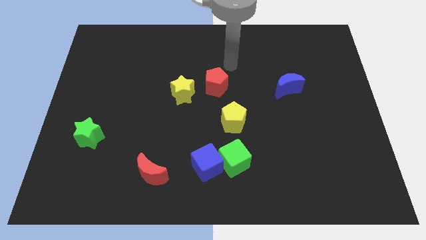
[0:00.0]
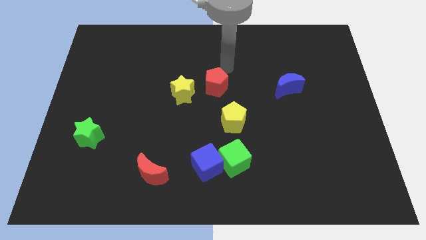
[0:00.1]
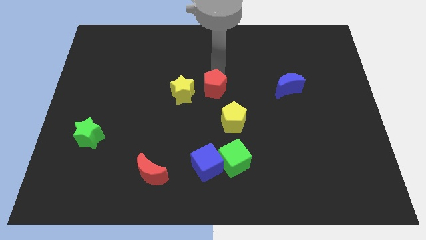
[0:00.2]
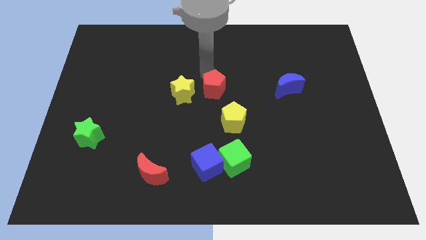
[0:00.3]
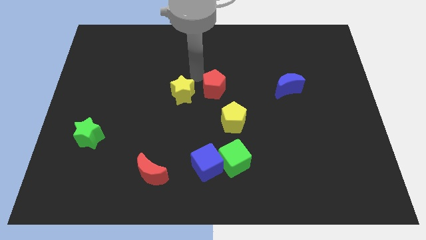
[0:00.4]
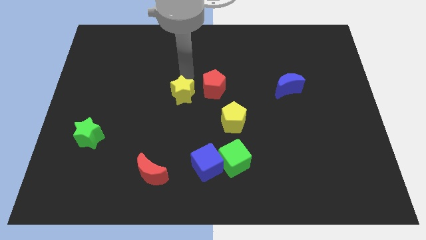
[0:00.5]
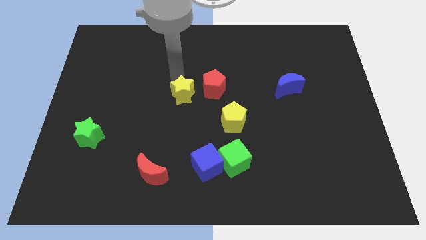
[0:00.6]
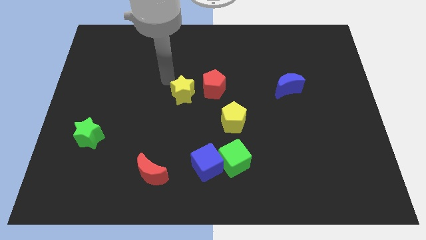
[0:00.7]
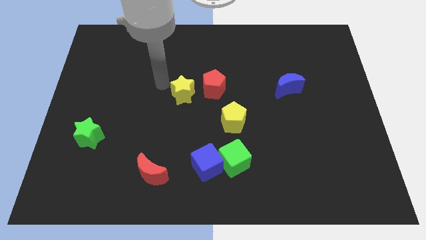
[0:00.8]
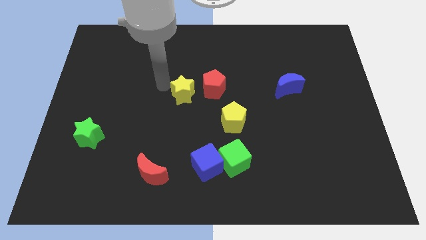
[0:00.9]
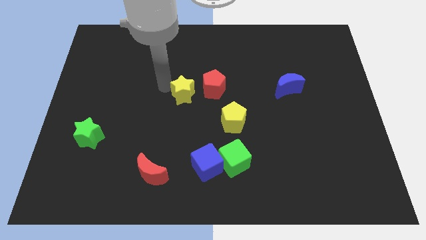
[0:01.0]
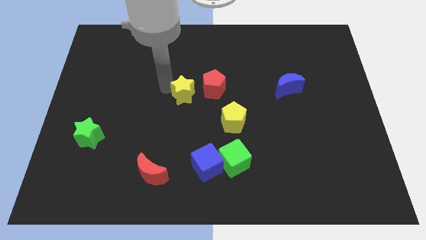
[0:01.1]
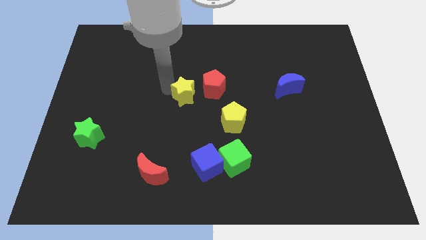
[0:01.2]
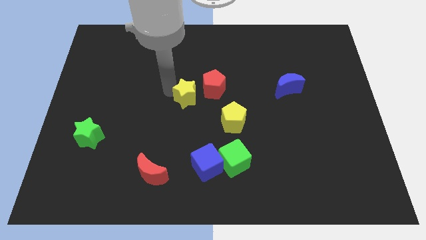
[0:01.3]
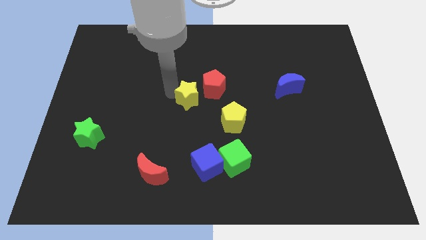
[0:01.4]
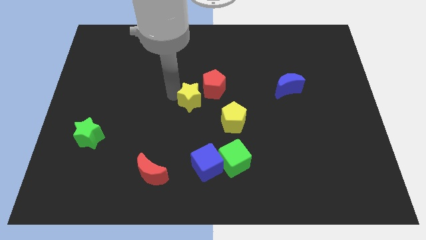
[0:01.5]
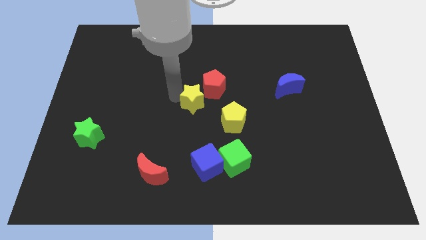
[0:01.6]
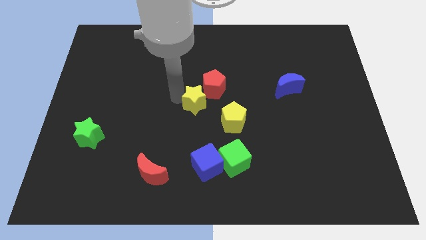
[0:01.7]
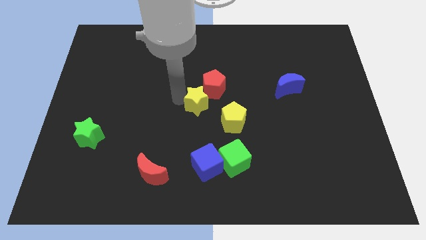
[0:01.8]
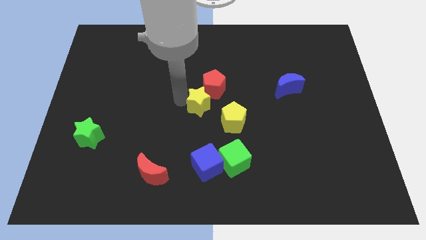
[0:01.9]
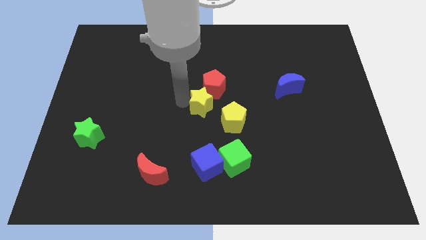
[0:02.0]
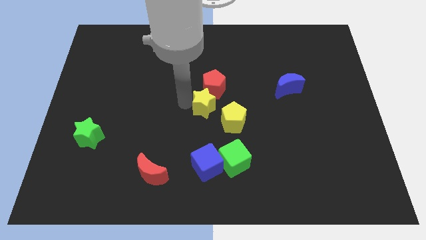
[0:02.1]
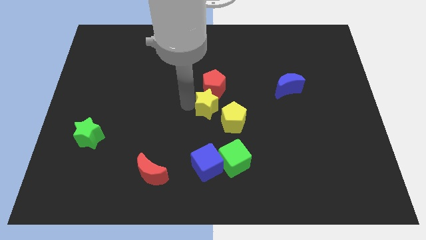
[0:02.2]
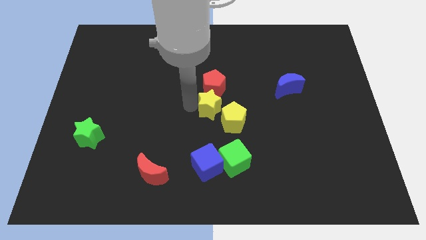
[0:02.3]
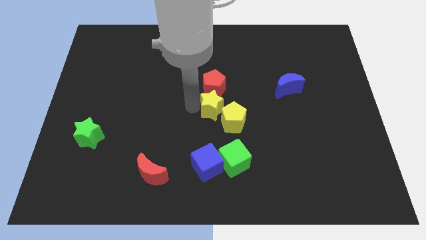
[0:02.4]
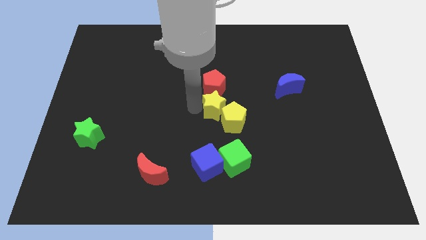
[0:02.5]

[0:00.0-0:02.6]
move the yellow star to the right a bit

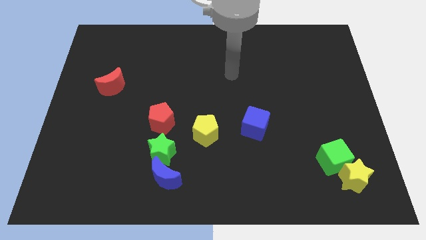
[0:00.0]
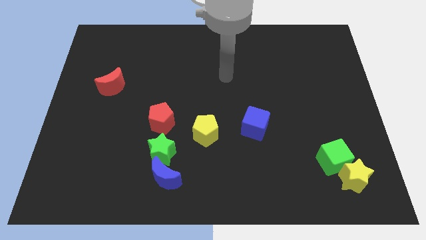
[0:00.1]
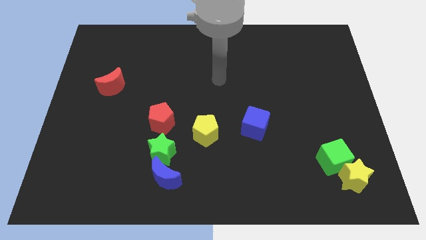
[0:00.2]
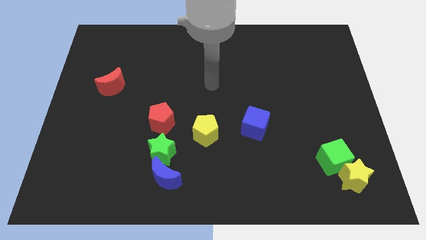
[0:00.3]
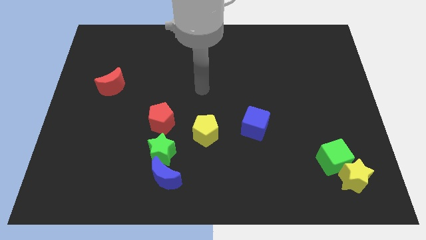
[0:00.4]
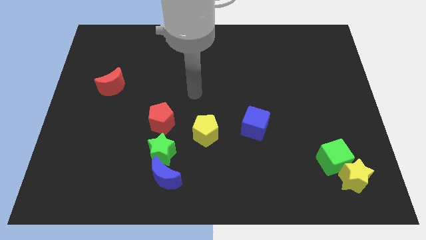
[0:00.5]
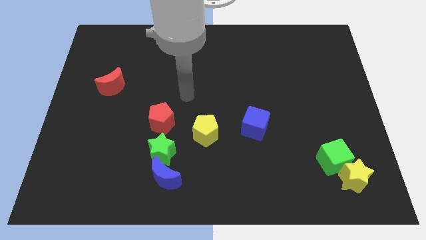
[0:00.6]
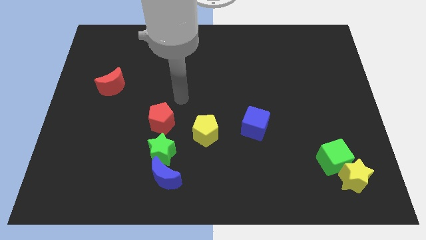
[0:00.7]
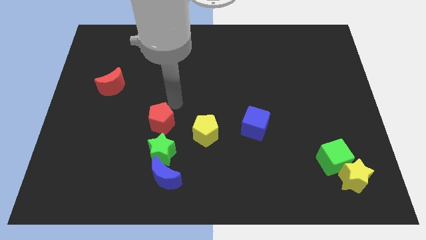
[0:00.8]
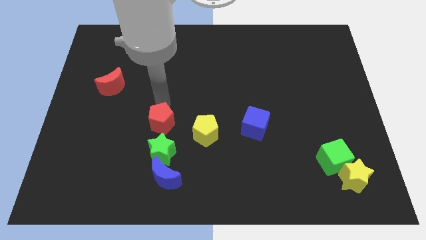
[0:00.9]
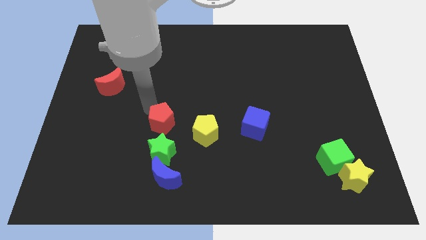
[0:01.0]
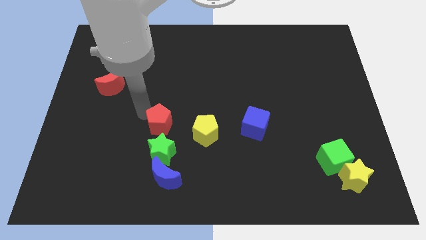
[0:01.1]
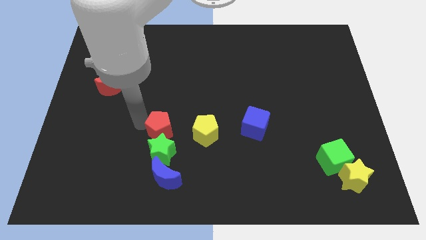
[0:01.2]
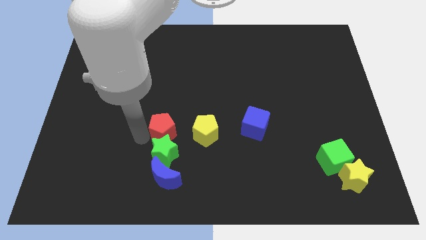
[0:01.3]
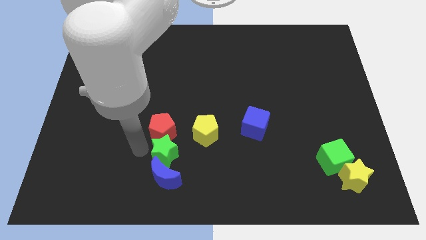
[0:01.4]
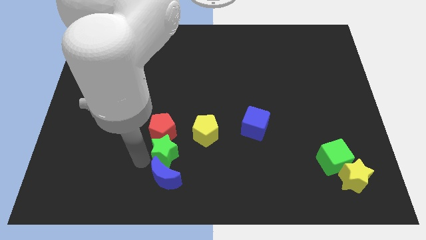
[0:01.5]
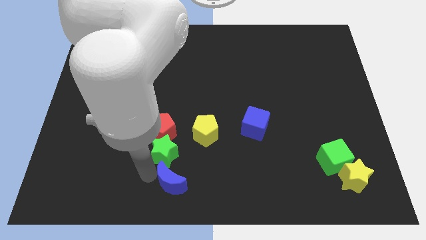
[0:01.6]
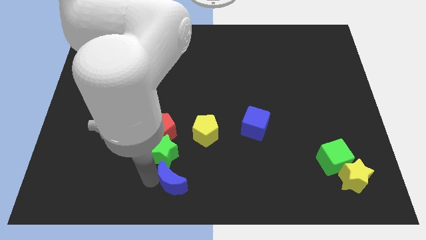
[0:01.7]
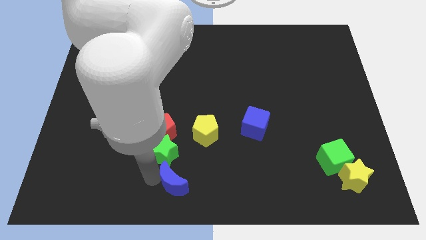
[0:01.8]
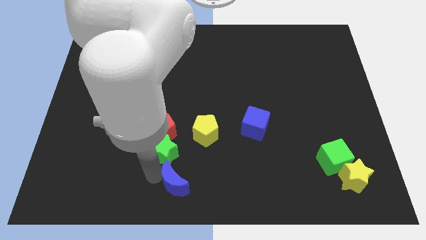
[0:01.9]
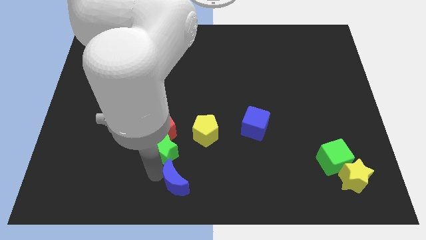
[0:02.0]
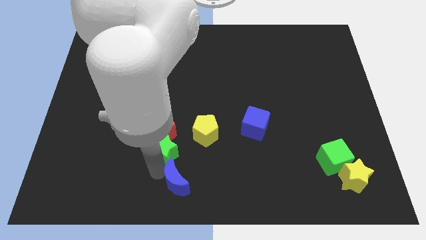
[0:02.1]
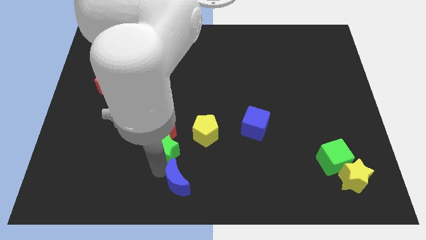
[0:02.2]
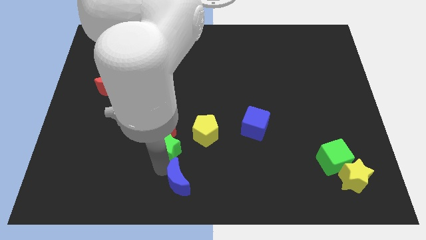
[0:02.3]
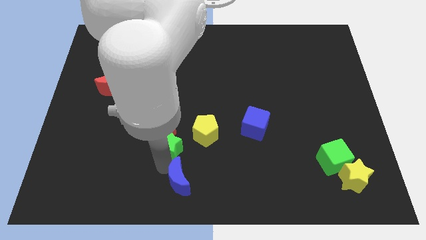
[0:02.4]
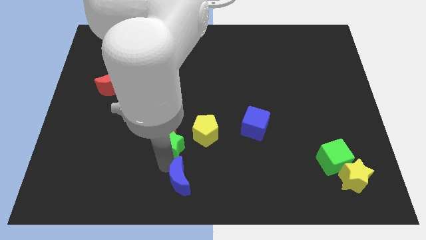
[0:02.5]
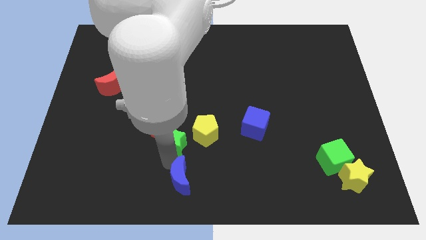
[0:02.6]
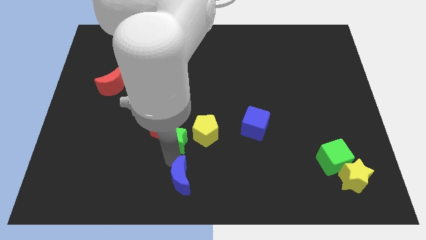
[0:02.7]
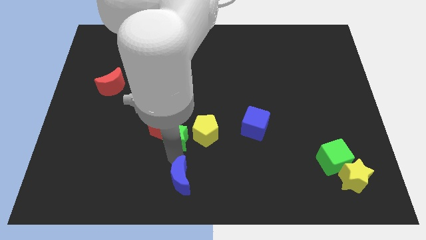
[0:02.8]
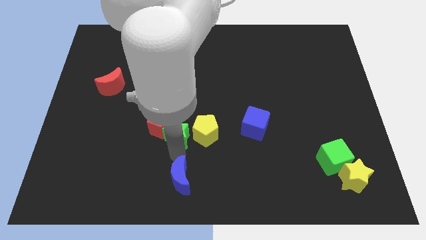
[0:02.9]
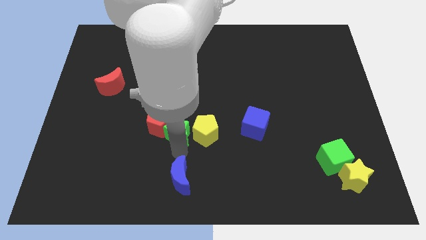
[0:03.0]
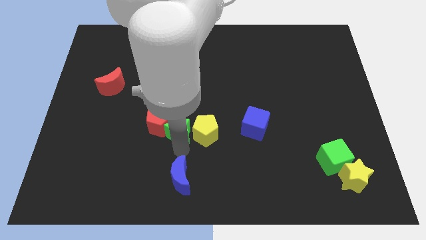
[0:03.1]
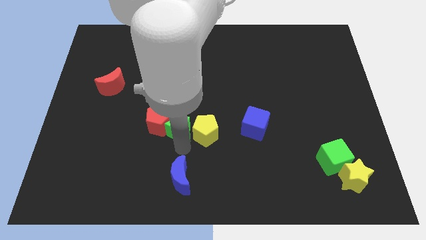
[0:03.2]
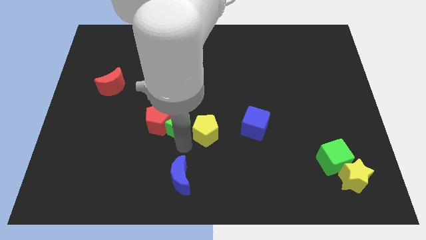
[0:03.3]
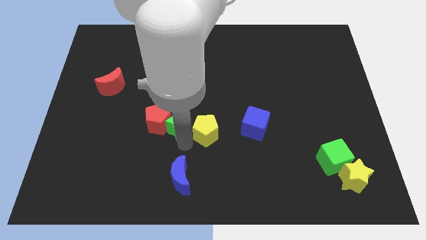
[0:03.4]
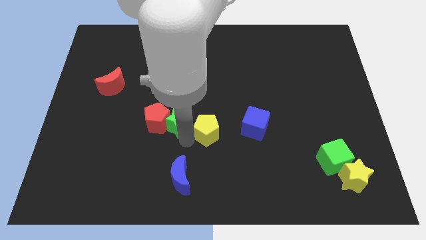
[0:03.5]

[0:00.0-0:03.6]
slightly move the green star up

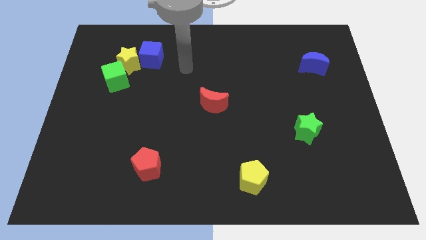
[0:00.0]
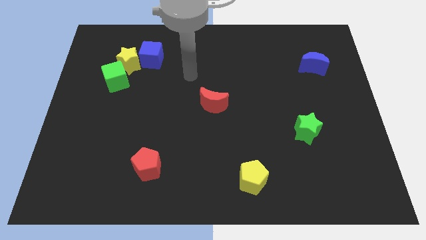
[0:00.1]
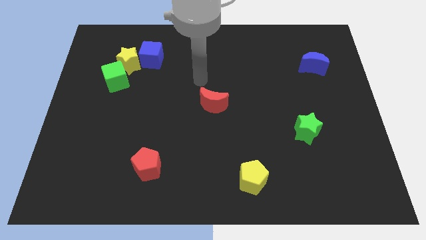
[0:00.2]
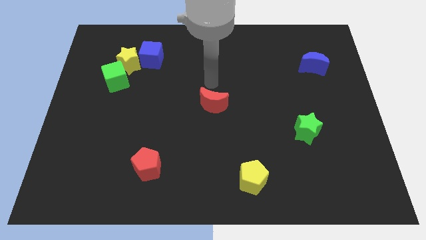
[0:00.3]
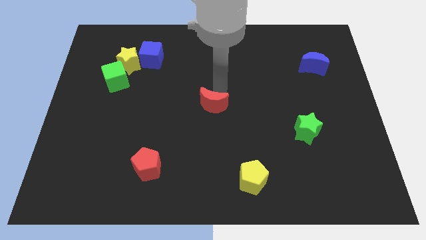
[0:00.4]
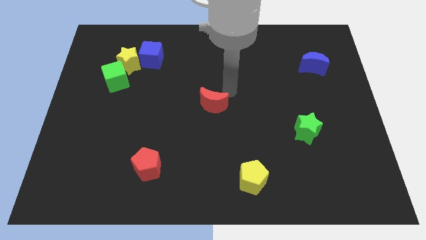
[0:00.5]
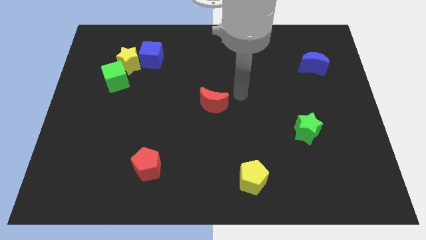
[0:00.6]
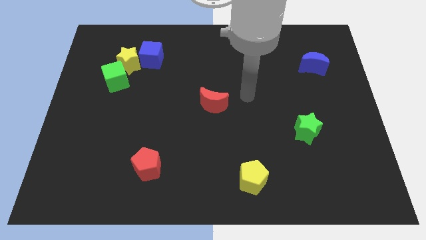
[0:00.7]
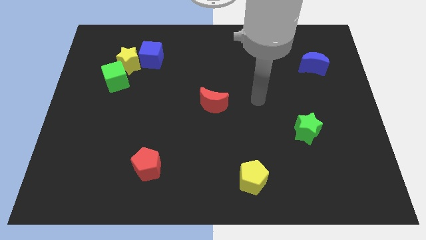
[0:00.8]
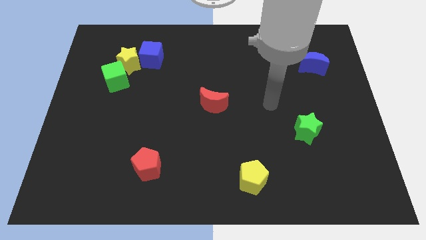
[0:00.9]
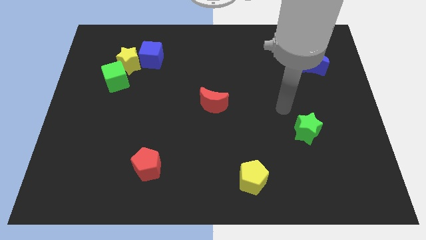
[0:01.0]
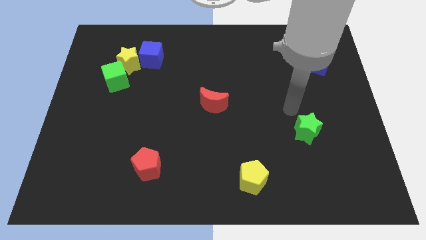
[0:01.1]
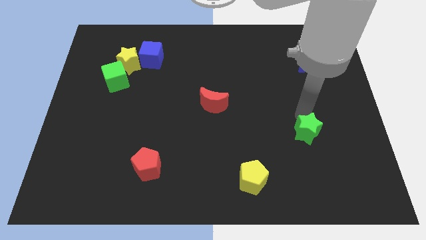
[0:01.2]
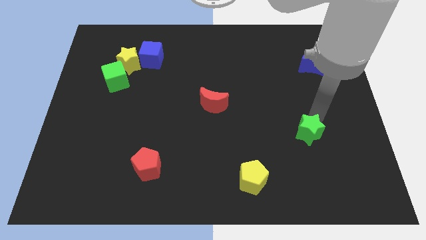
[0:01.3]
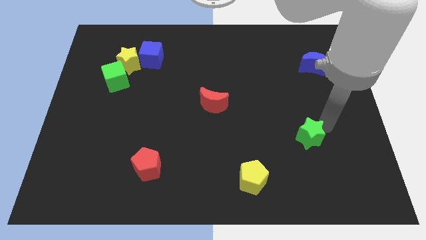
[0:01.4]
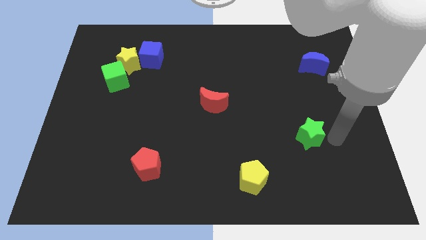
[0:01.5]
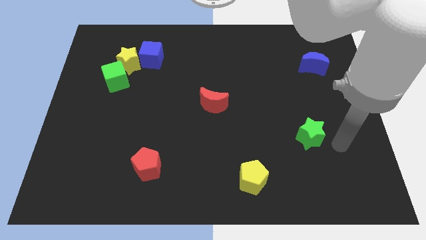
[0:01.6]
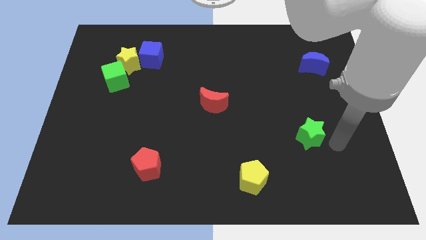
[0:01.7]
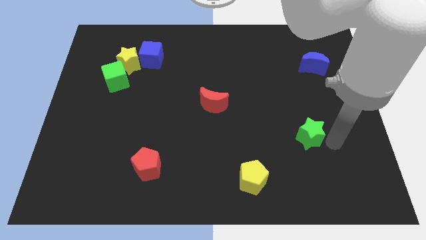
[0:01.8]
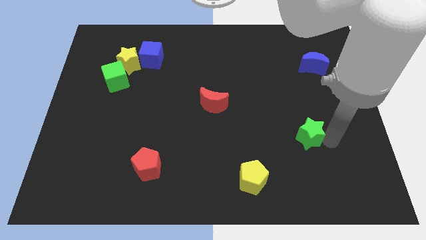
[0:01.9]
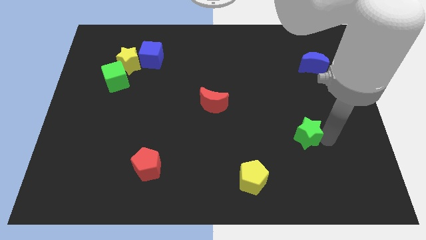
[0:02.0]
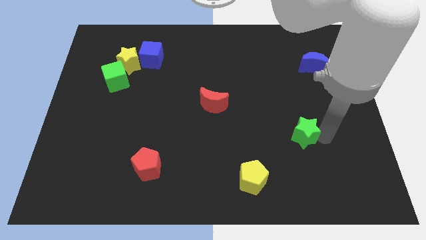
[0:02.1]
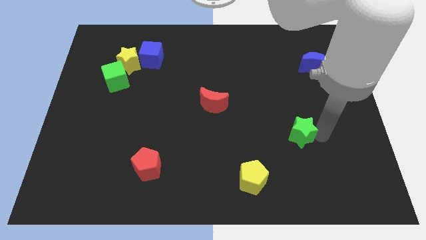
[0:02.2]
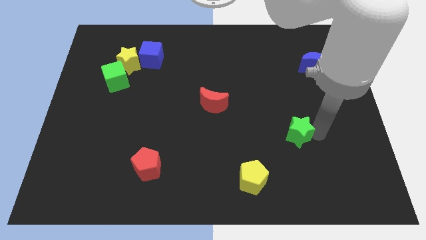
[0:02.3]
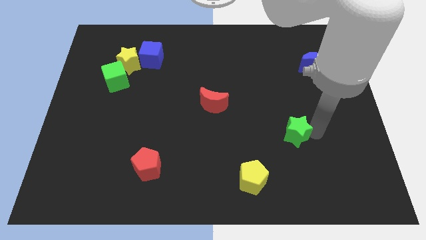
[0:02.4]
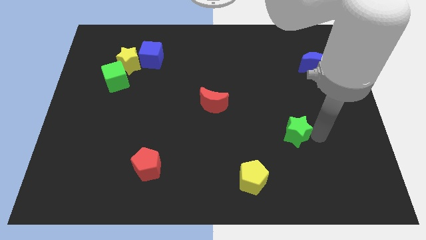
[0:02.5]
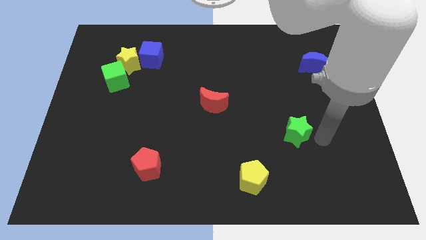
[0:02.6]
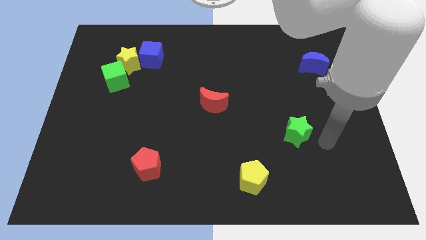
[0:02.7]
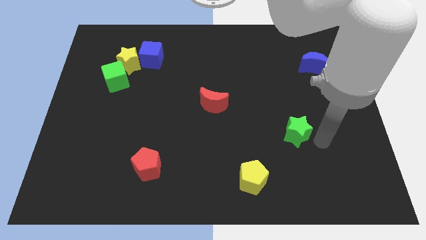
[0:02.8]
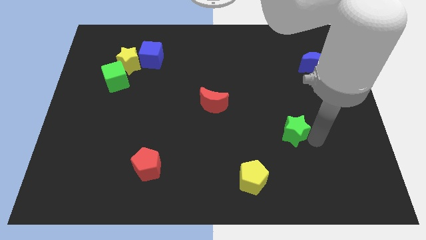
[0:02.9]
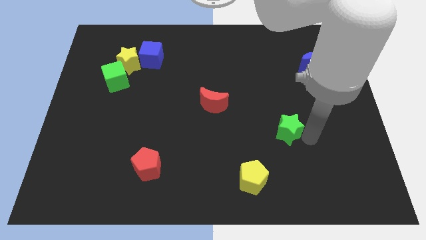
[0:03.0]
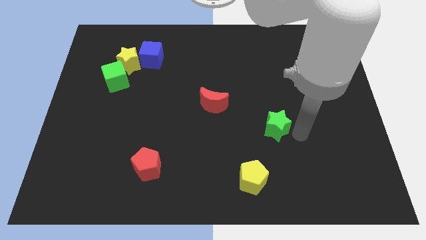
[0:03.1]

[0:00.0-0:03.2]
move the green star to the left slightly
